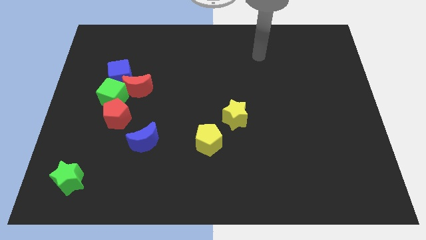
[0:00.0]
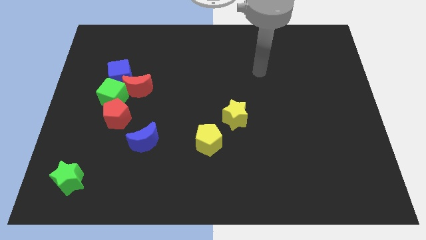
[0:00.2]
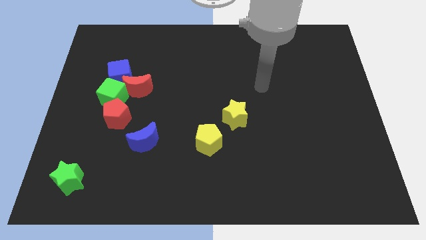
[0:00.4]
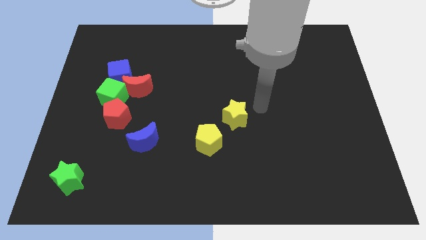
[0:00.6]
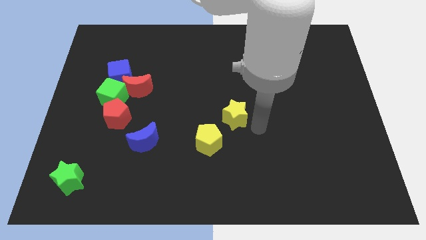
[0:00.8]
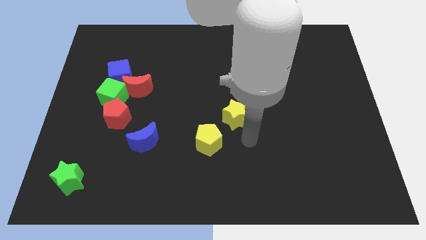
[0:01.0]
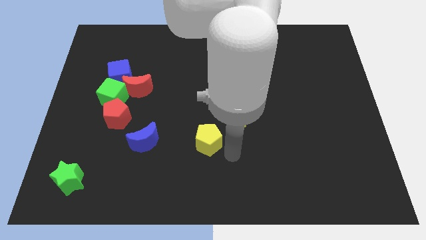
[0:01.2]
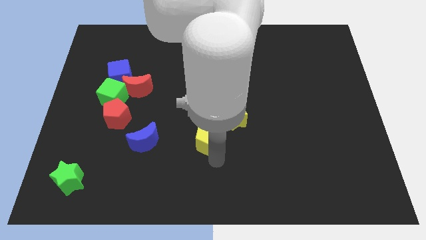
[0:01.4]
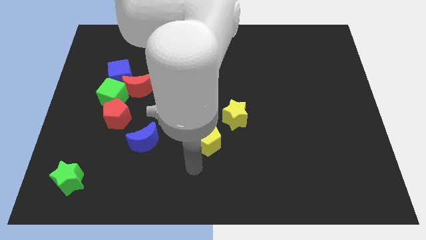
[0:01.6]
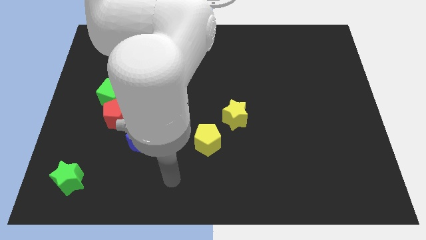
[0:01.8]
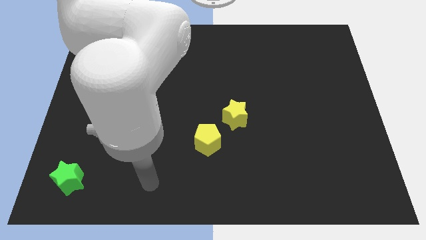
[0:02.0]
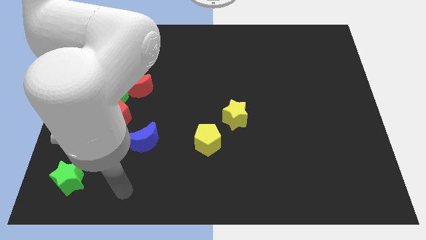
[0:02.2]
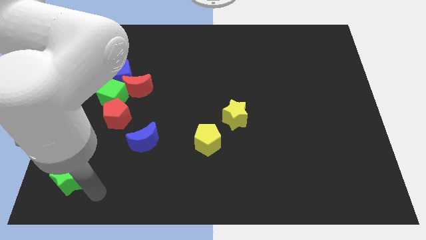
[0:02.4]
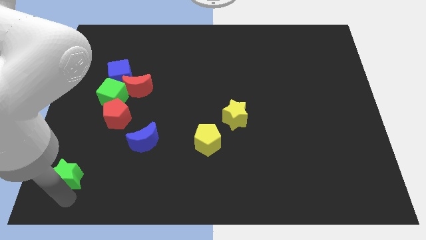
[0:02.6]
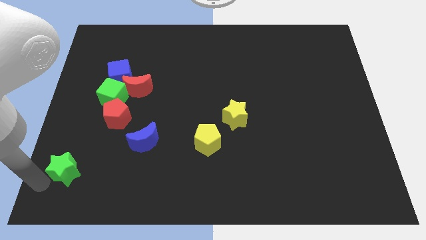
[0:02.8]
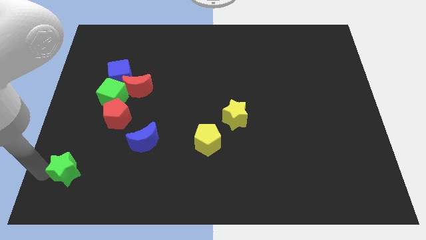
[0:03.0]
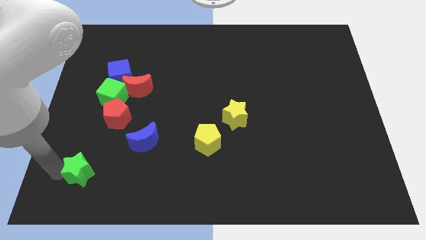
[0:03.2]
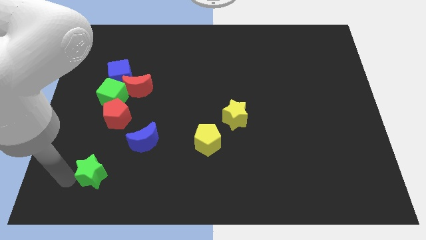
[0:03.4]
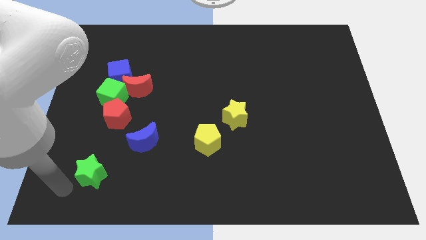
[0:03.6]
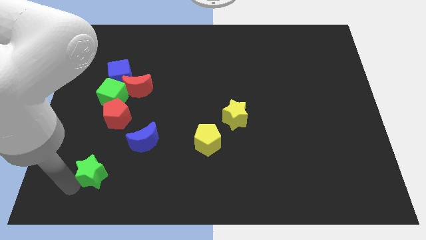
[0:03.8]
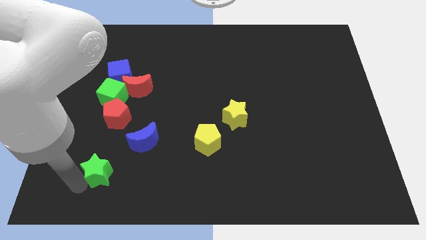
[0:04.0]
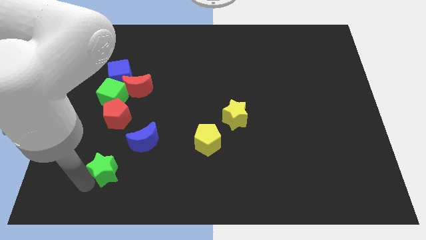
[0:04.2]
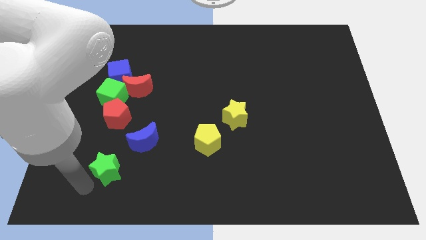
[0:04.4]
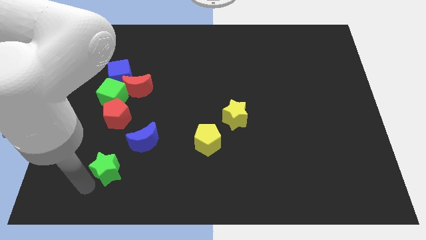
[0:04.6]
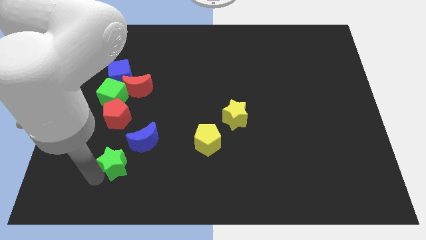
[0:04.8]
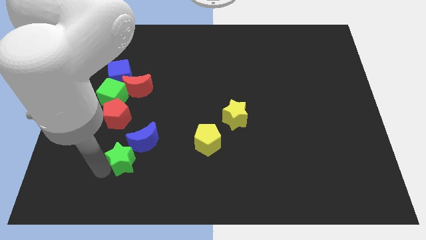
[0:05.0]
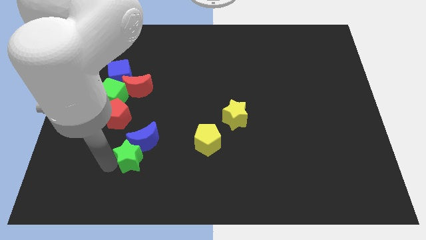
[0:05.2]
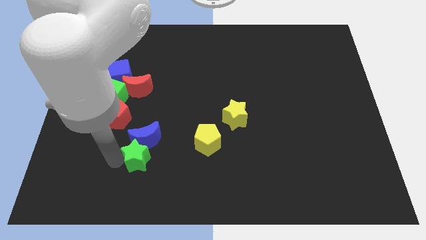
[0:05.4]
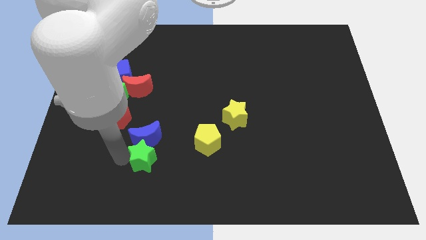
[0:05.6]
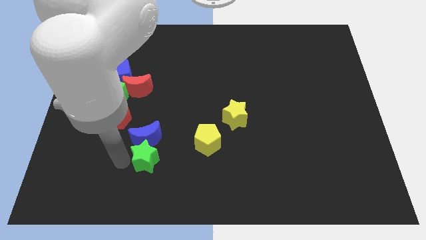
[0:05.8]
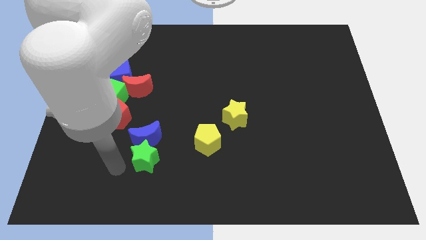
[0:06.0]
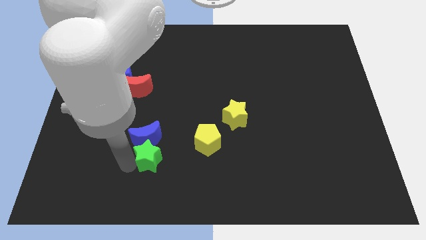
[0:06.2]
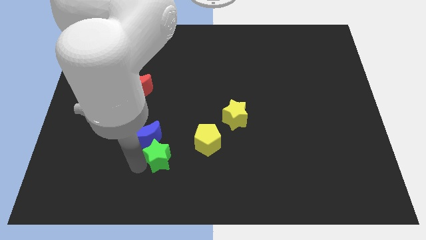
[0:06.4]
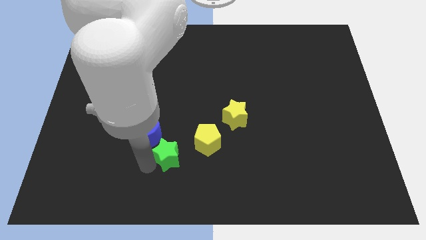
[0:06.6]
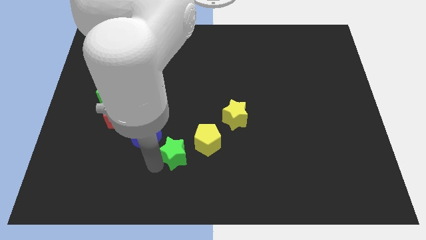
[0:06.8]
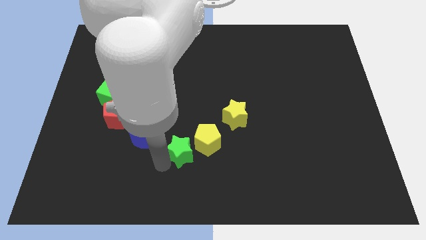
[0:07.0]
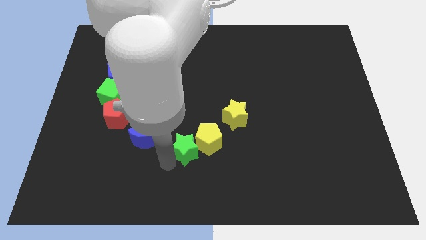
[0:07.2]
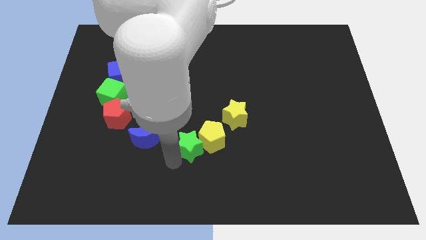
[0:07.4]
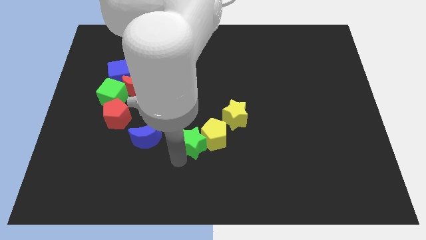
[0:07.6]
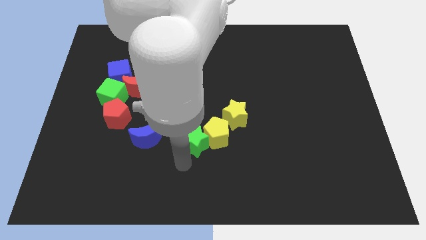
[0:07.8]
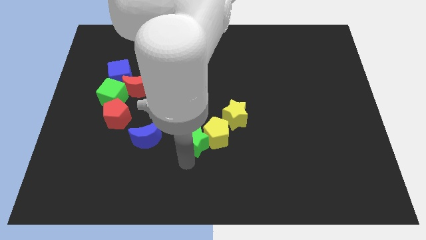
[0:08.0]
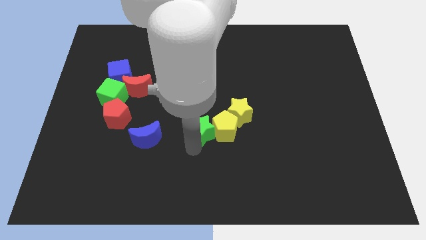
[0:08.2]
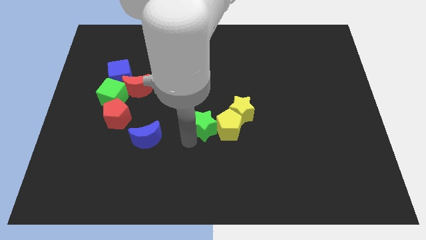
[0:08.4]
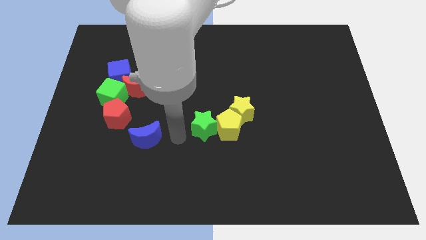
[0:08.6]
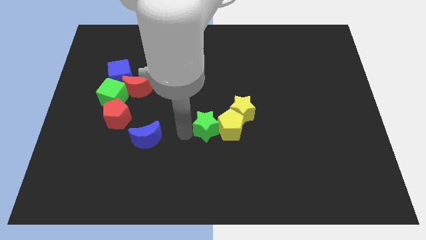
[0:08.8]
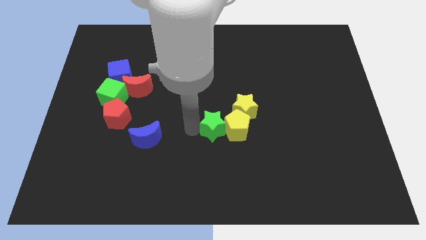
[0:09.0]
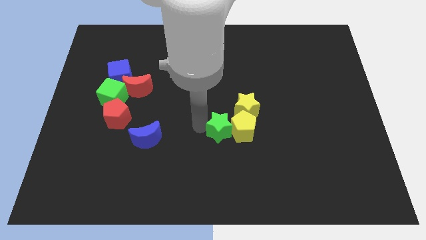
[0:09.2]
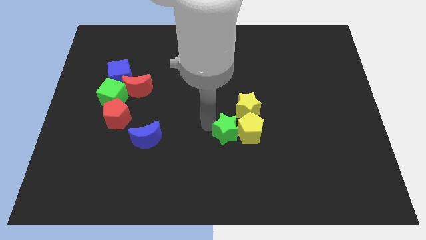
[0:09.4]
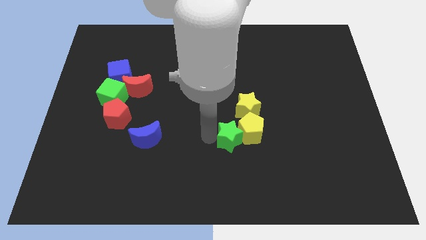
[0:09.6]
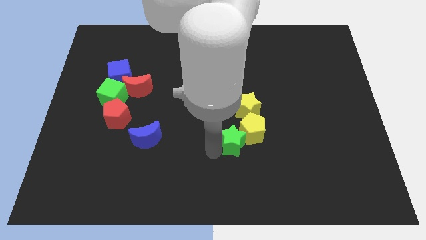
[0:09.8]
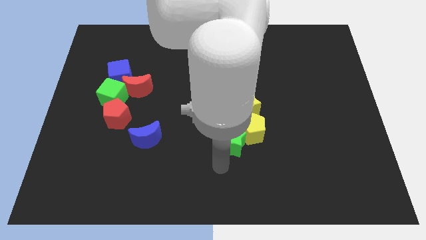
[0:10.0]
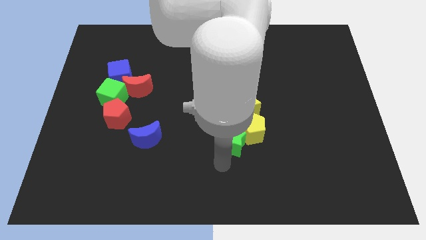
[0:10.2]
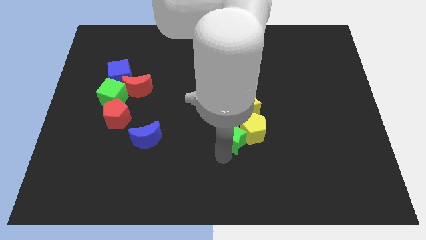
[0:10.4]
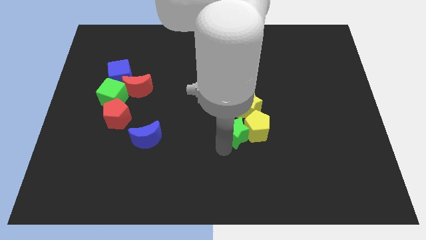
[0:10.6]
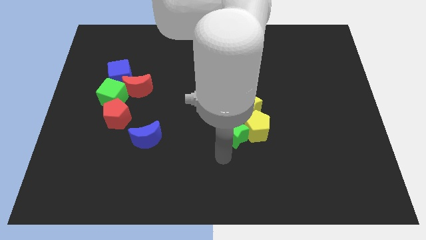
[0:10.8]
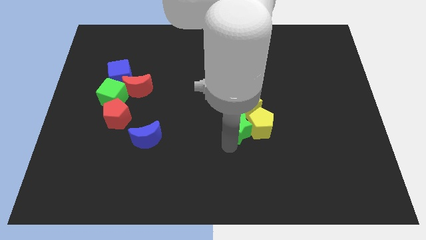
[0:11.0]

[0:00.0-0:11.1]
slide the green star to the yellow star

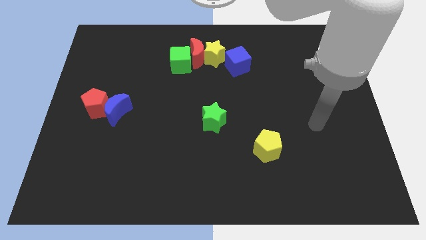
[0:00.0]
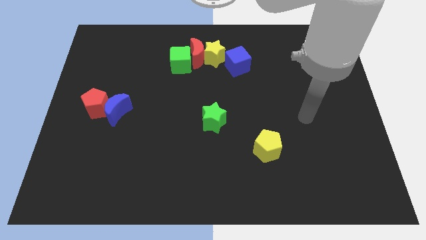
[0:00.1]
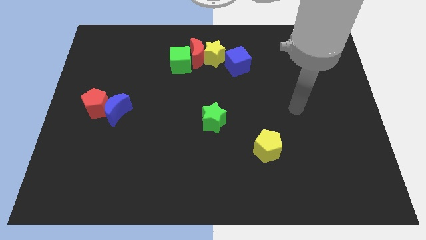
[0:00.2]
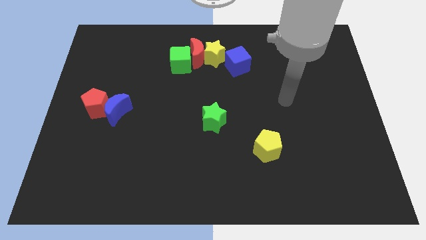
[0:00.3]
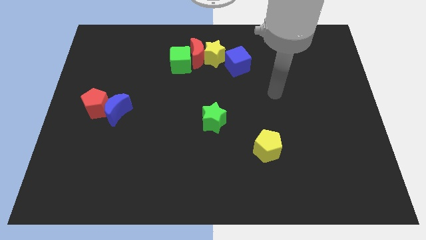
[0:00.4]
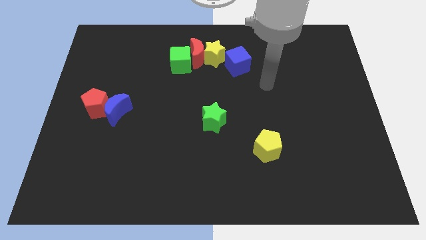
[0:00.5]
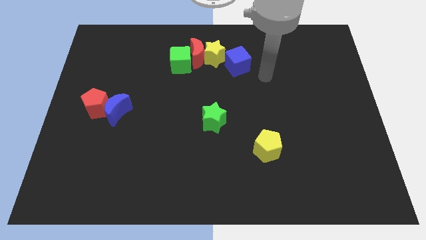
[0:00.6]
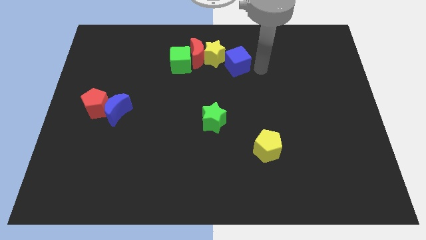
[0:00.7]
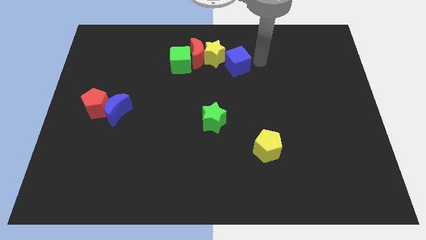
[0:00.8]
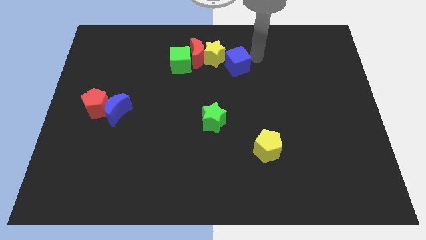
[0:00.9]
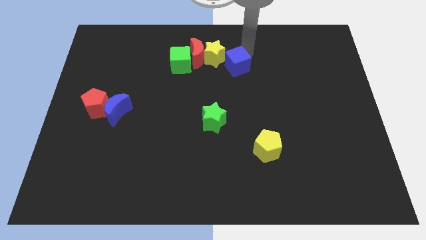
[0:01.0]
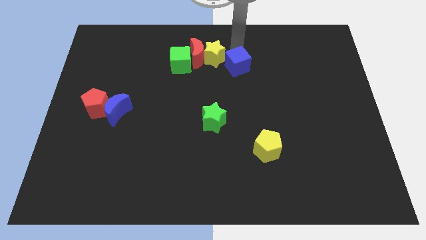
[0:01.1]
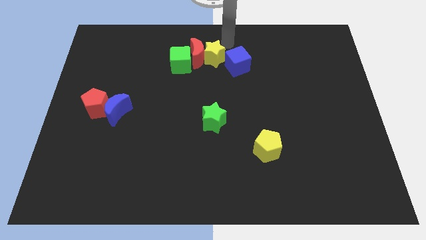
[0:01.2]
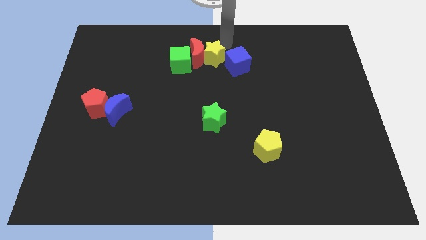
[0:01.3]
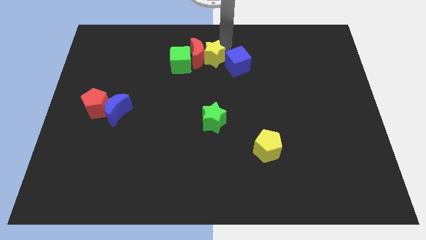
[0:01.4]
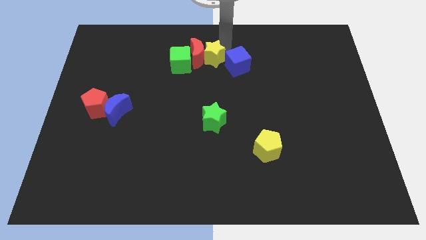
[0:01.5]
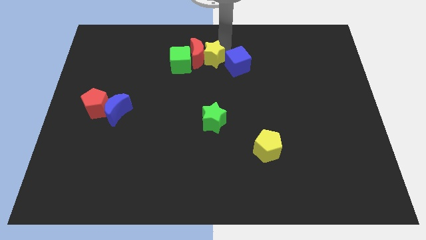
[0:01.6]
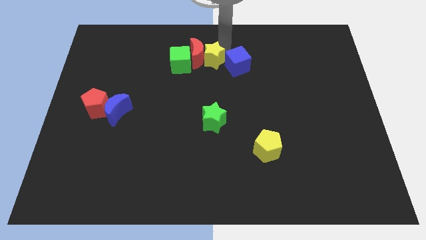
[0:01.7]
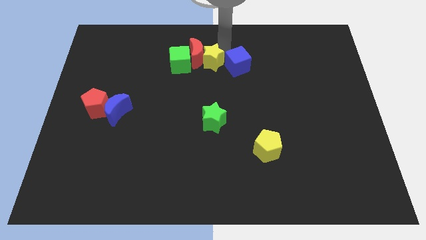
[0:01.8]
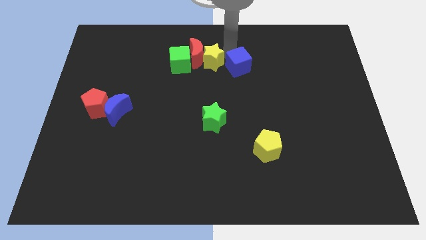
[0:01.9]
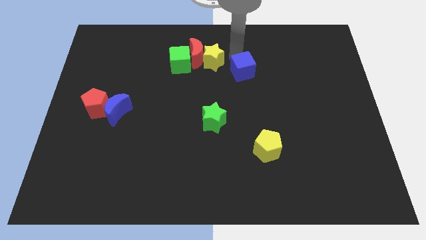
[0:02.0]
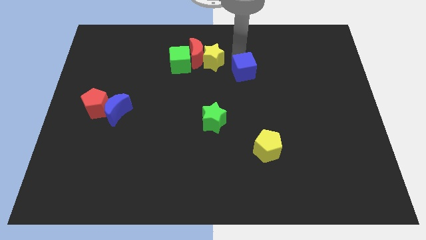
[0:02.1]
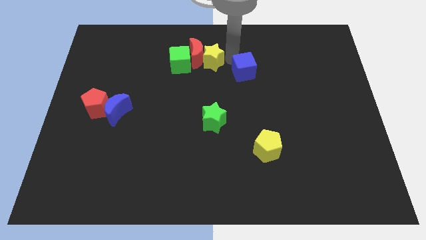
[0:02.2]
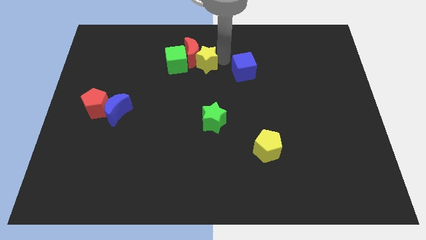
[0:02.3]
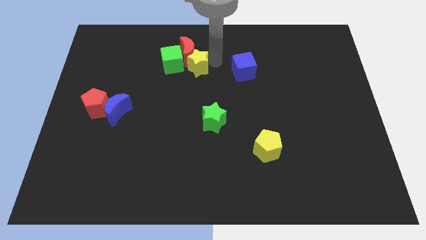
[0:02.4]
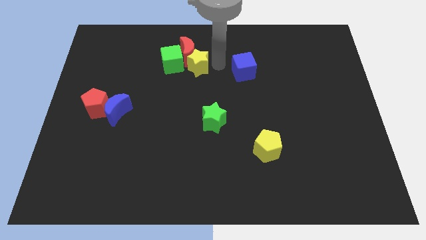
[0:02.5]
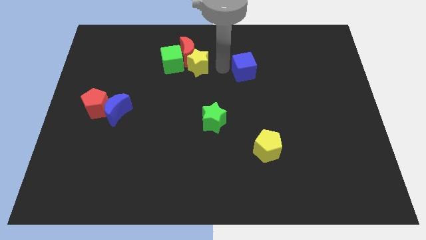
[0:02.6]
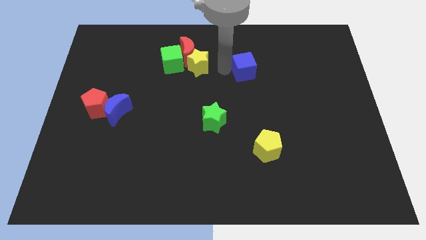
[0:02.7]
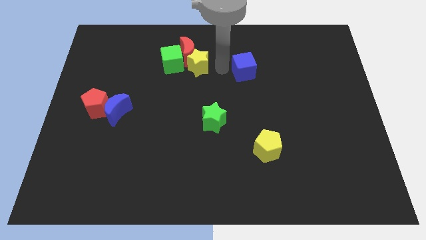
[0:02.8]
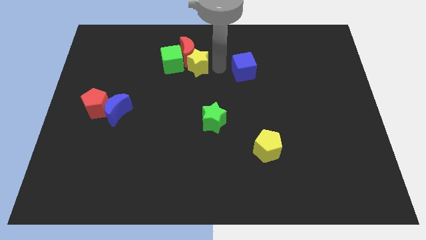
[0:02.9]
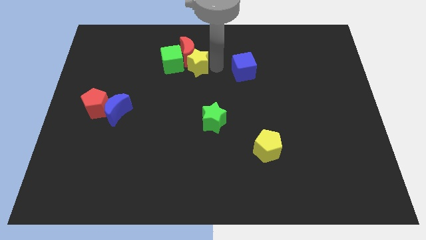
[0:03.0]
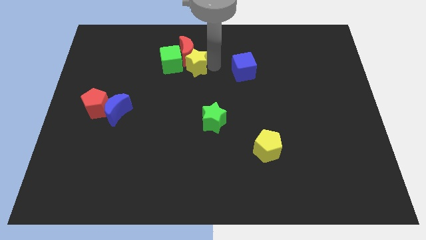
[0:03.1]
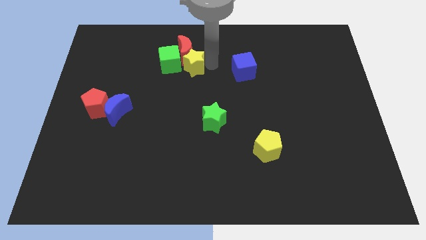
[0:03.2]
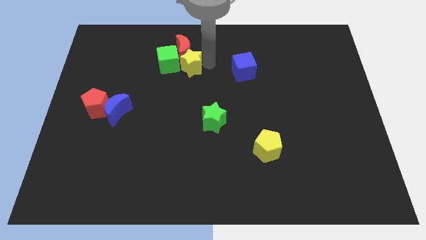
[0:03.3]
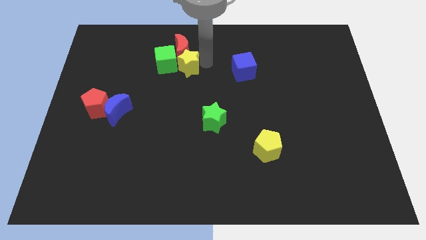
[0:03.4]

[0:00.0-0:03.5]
move the yellow star to the green cube
